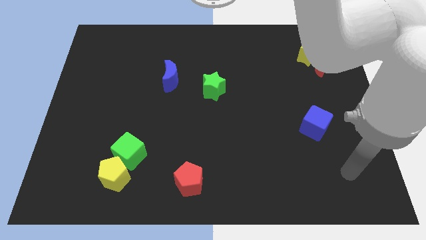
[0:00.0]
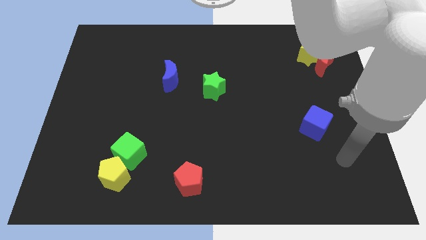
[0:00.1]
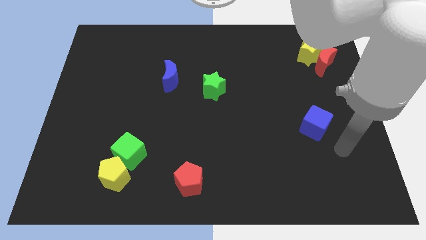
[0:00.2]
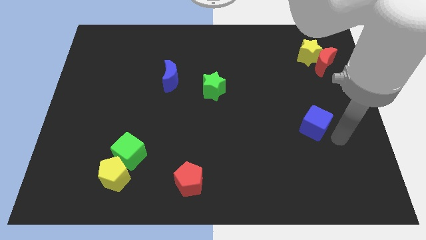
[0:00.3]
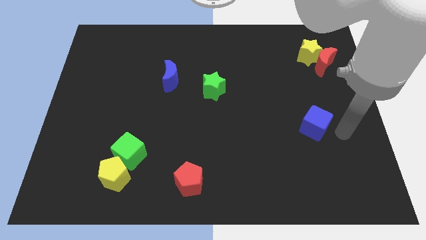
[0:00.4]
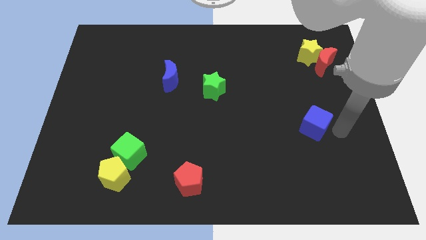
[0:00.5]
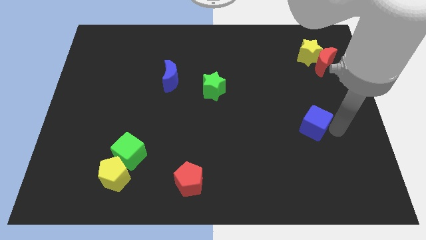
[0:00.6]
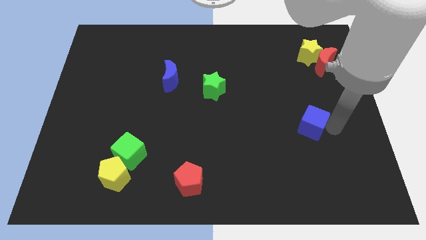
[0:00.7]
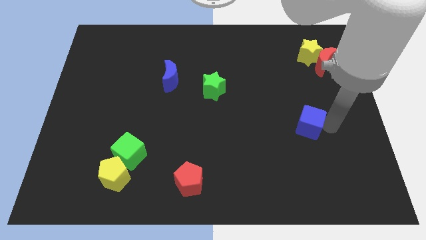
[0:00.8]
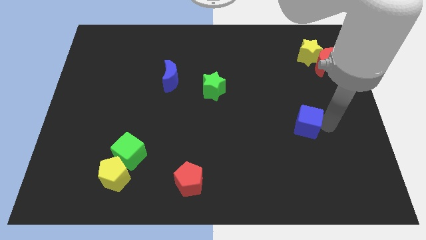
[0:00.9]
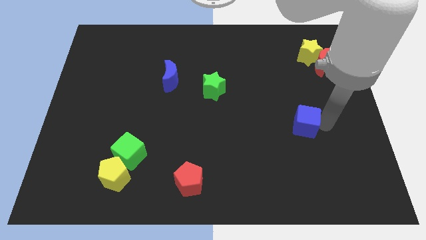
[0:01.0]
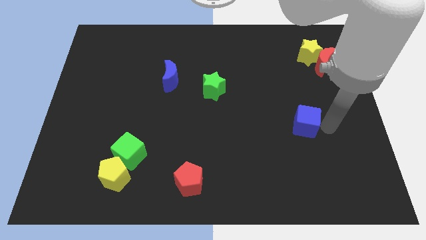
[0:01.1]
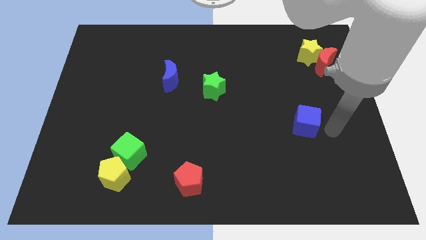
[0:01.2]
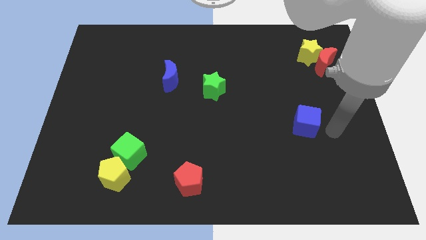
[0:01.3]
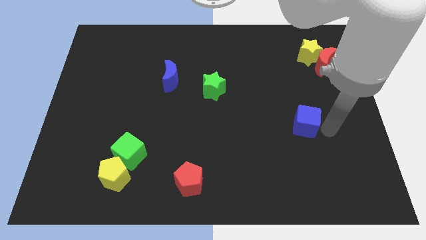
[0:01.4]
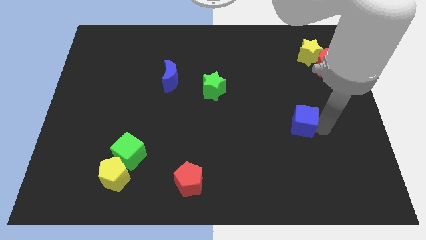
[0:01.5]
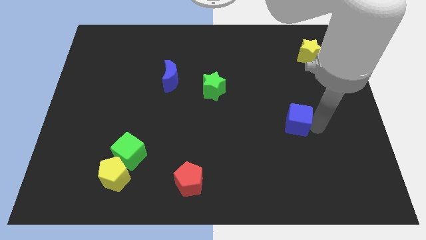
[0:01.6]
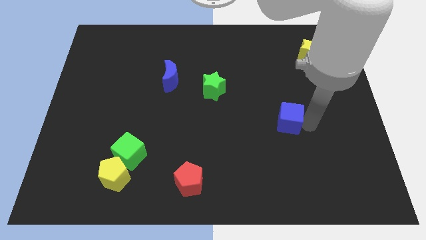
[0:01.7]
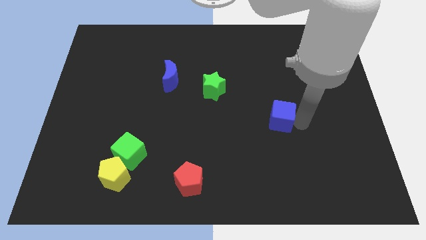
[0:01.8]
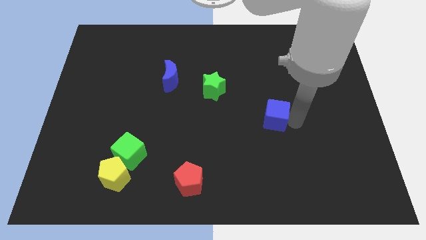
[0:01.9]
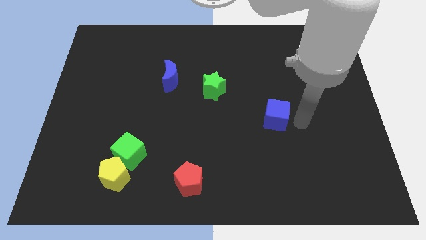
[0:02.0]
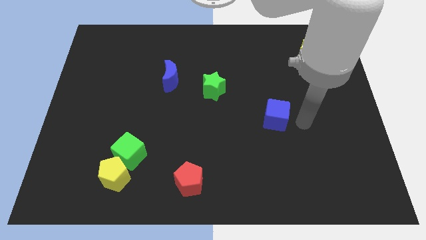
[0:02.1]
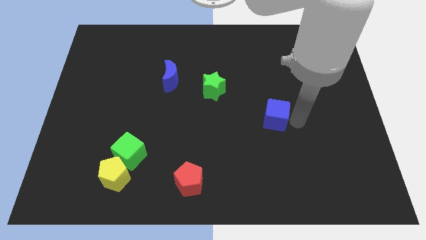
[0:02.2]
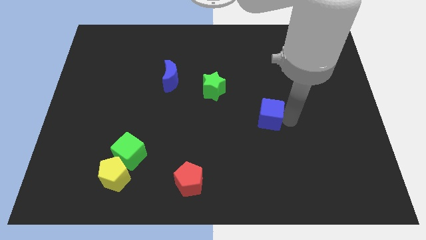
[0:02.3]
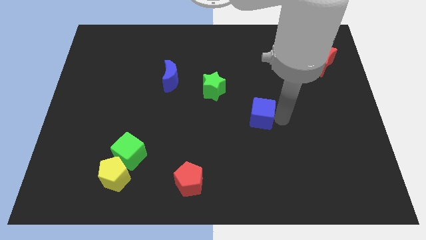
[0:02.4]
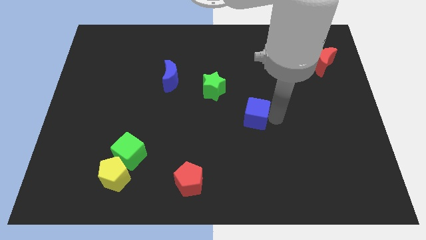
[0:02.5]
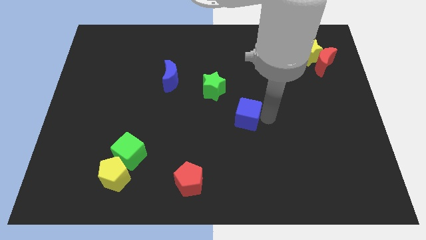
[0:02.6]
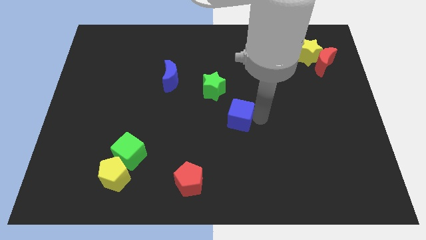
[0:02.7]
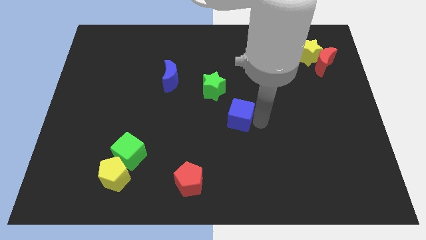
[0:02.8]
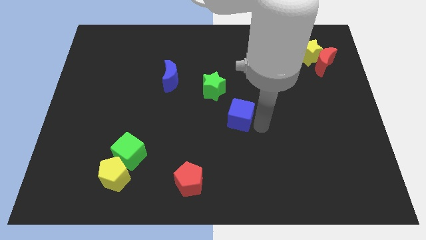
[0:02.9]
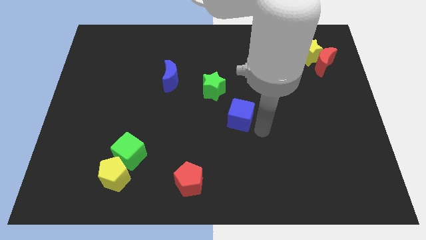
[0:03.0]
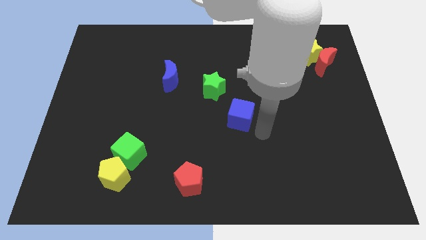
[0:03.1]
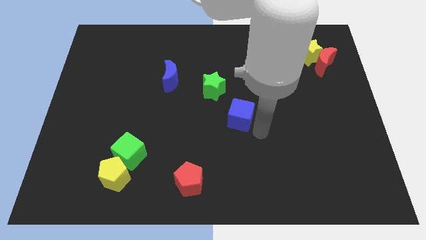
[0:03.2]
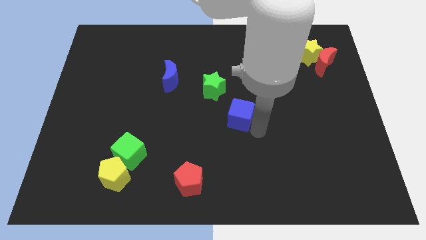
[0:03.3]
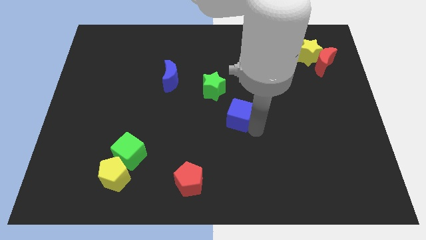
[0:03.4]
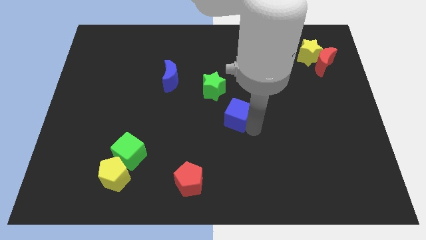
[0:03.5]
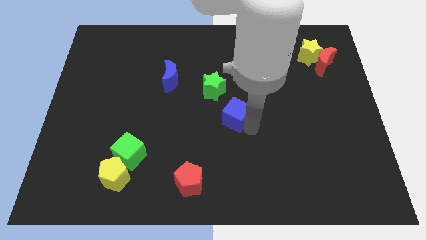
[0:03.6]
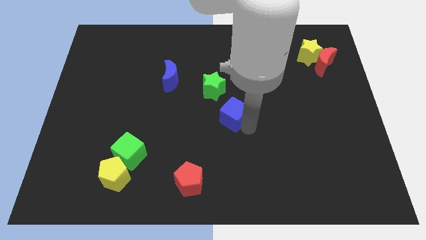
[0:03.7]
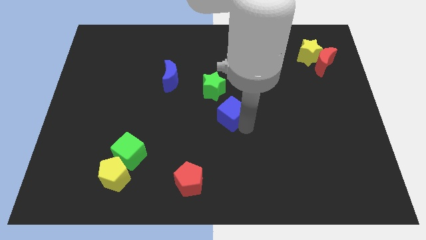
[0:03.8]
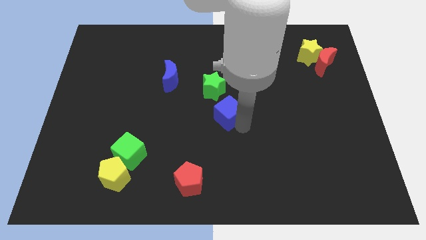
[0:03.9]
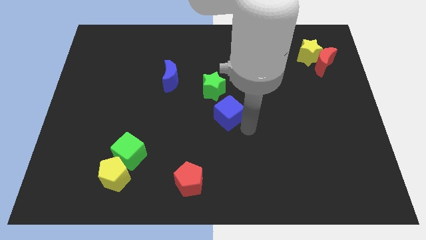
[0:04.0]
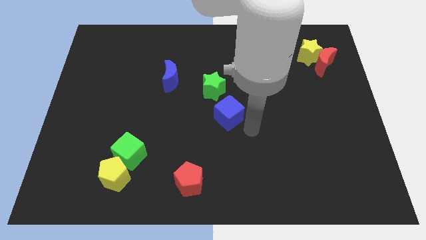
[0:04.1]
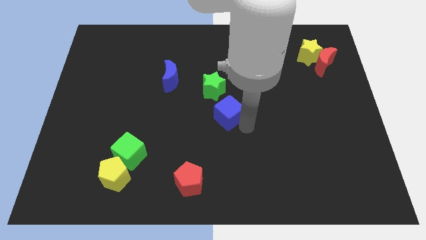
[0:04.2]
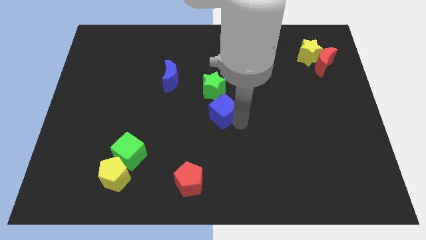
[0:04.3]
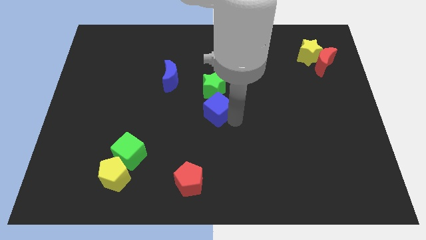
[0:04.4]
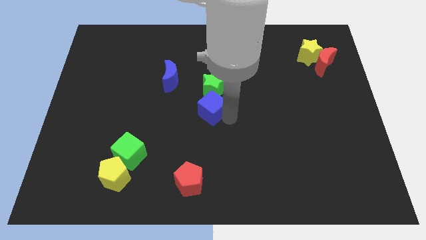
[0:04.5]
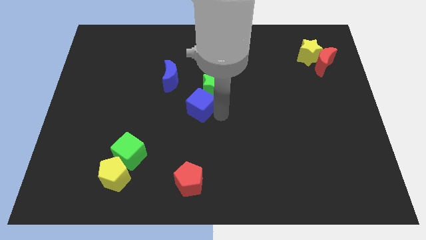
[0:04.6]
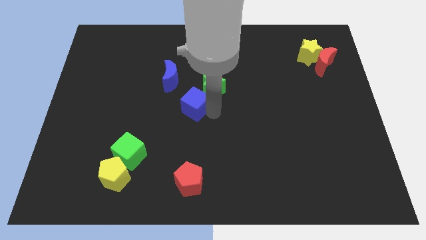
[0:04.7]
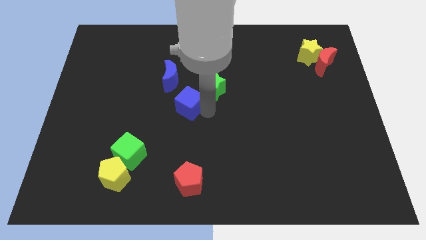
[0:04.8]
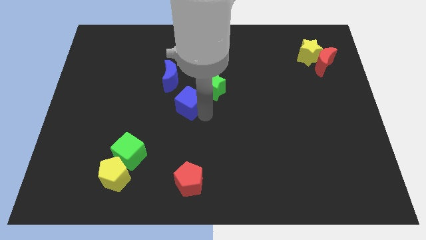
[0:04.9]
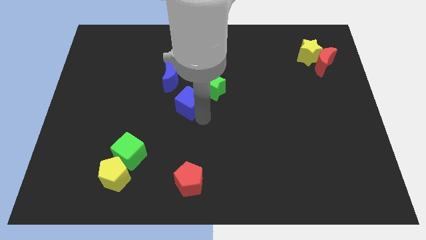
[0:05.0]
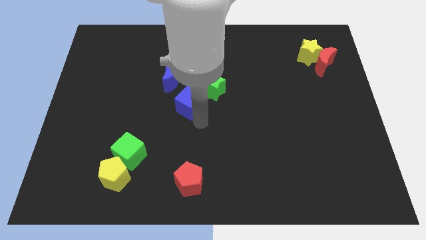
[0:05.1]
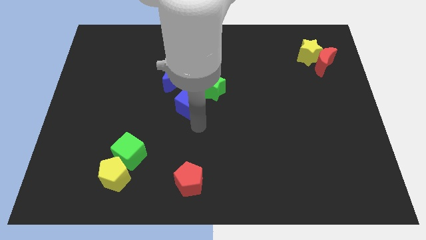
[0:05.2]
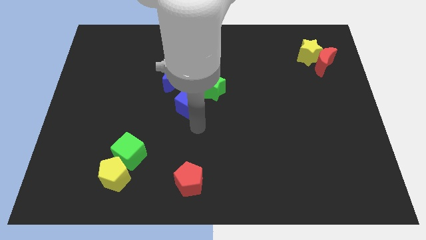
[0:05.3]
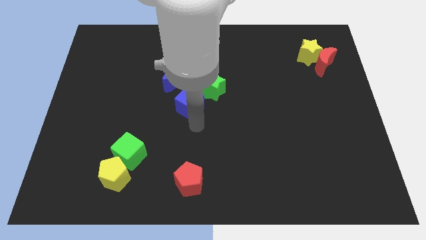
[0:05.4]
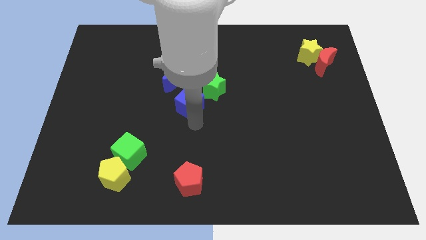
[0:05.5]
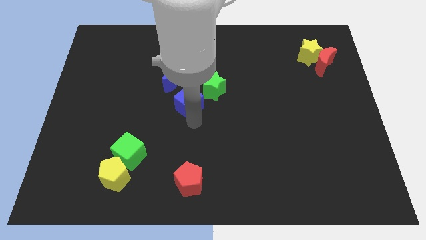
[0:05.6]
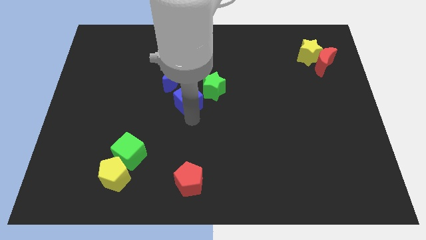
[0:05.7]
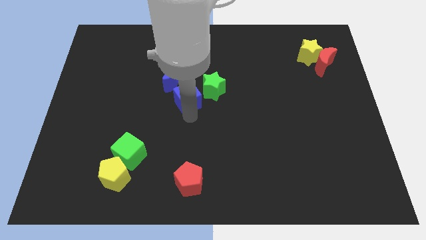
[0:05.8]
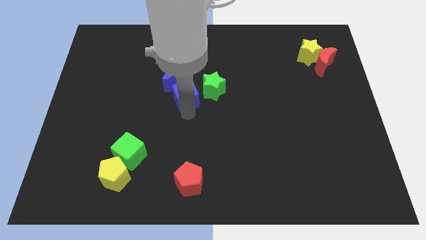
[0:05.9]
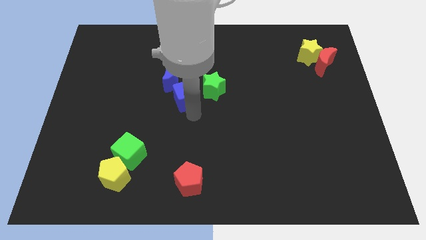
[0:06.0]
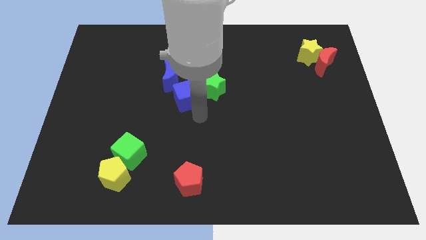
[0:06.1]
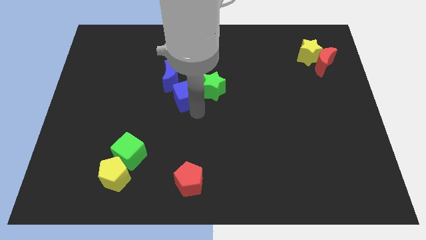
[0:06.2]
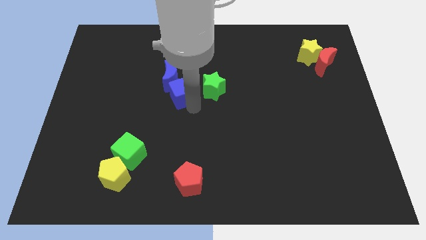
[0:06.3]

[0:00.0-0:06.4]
put the blue cube close to the blue moon

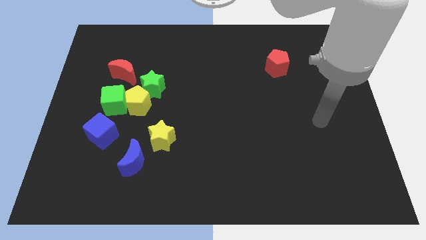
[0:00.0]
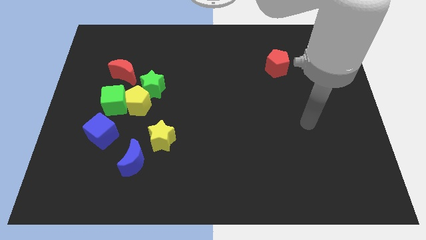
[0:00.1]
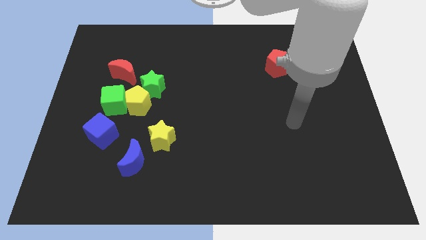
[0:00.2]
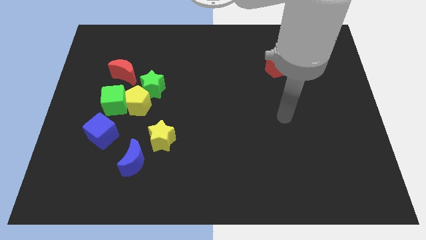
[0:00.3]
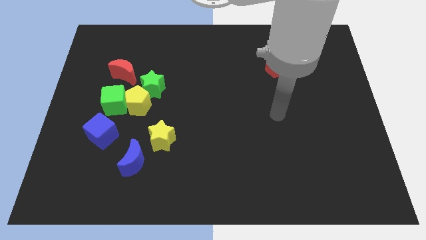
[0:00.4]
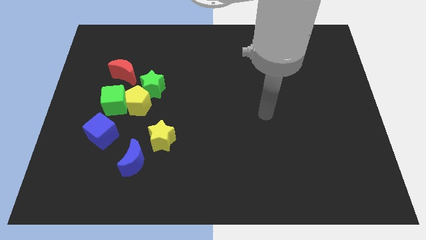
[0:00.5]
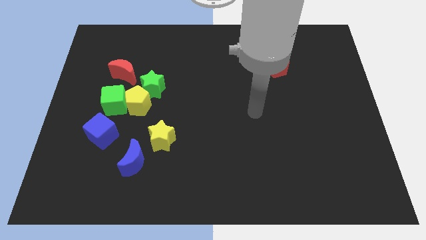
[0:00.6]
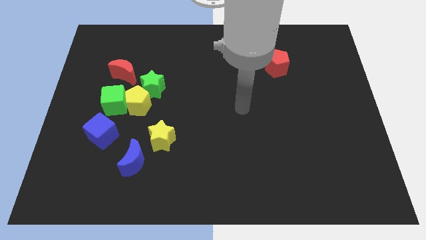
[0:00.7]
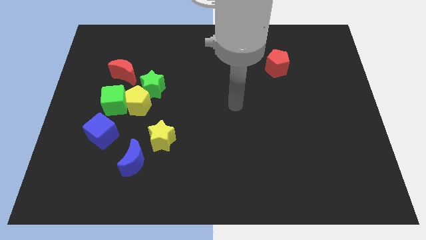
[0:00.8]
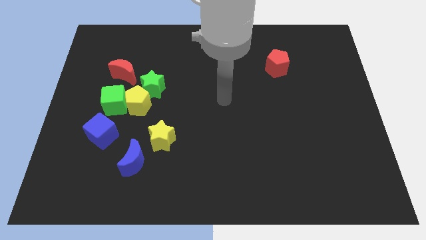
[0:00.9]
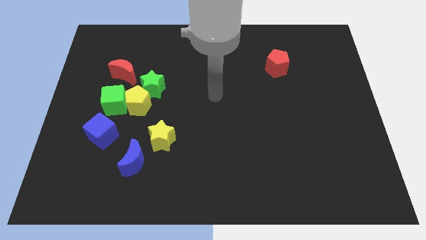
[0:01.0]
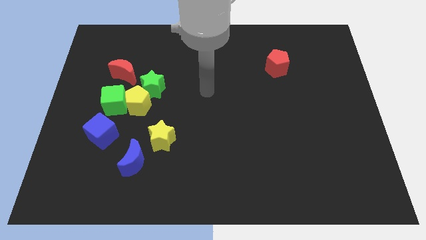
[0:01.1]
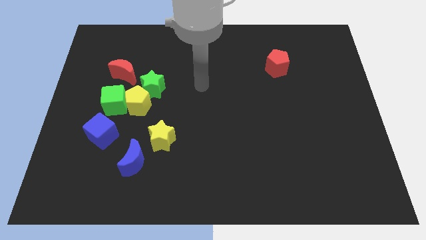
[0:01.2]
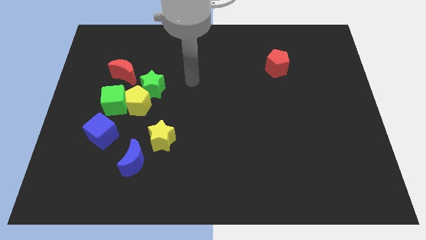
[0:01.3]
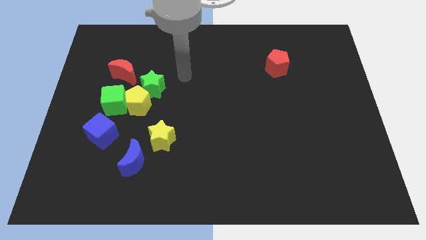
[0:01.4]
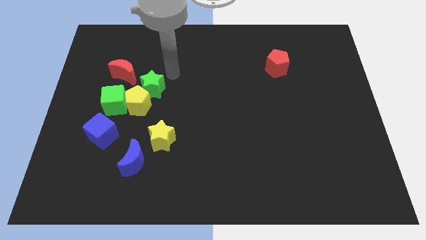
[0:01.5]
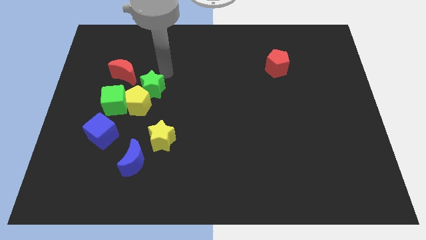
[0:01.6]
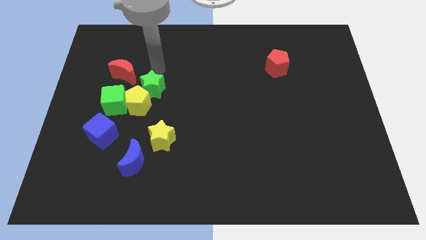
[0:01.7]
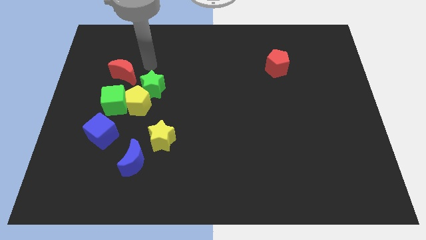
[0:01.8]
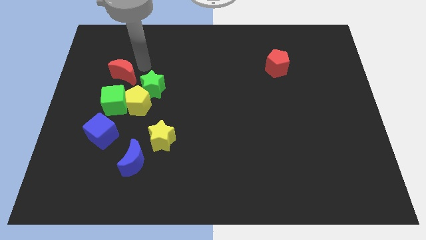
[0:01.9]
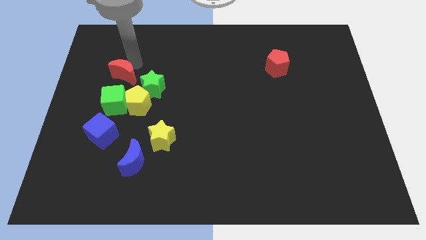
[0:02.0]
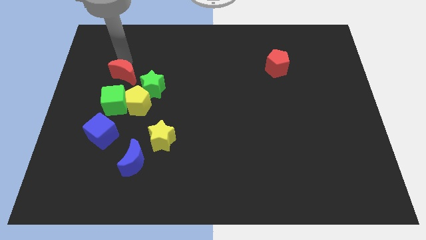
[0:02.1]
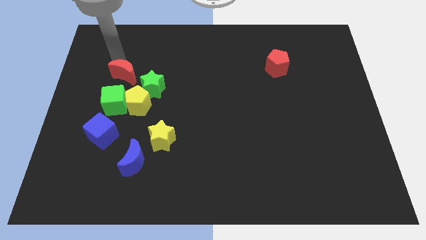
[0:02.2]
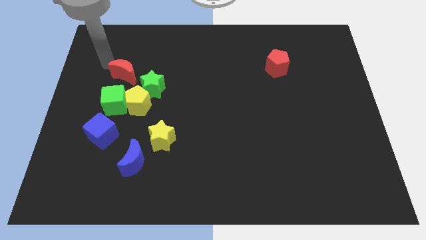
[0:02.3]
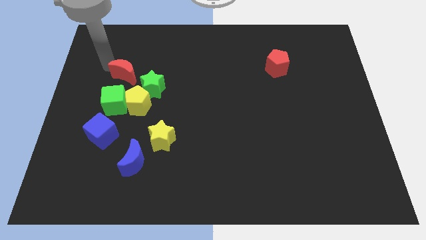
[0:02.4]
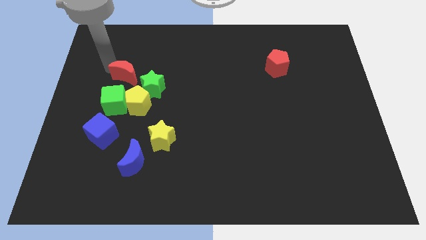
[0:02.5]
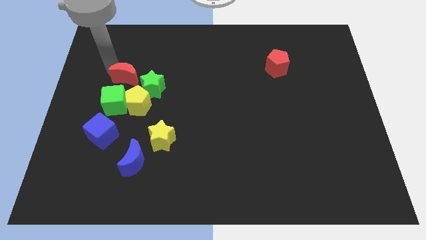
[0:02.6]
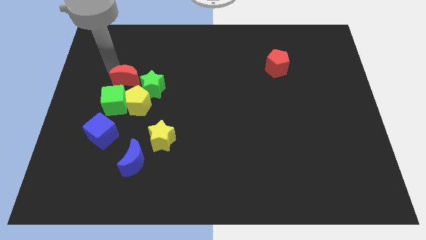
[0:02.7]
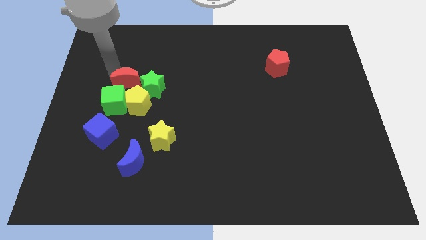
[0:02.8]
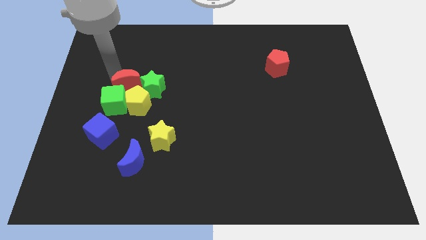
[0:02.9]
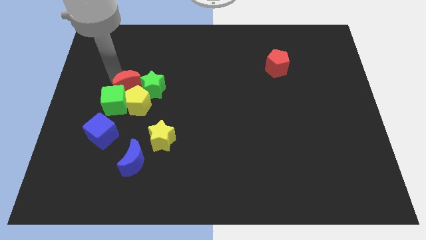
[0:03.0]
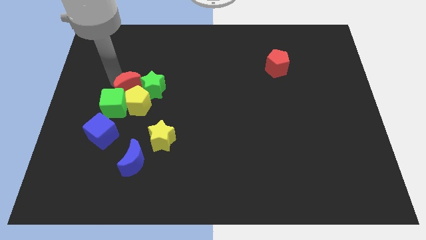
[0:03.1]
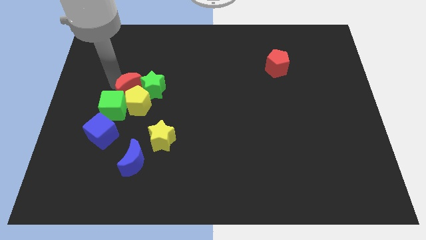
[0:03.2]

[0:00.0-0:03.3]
push the red moon to the green star
